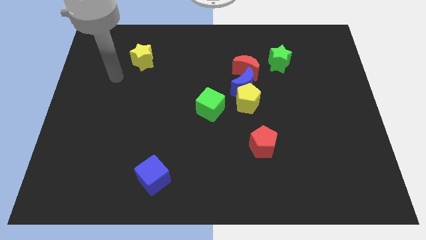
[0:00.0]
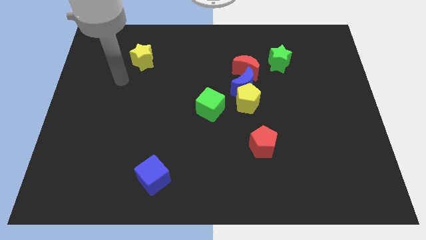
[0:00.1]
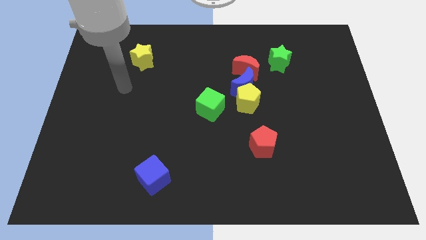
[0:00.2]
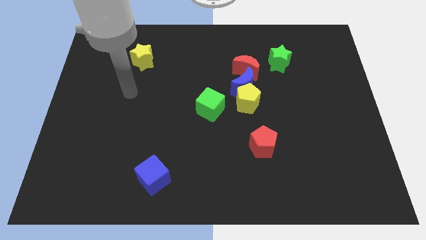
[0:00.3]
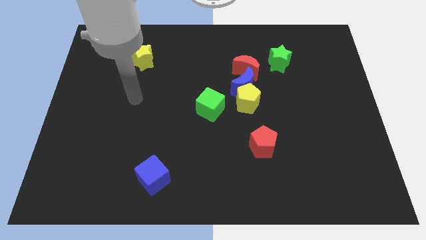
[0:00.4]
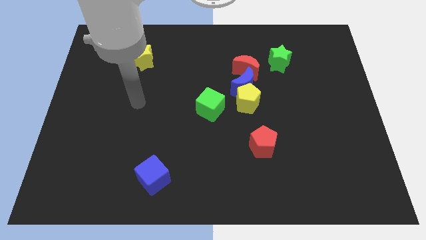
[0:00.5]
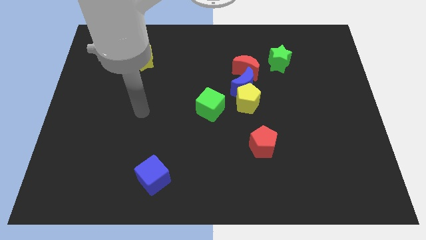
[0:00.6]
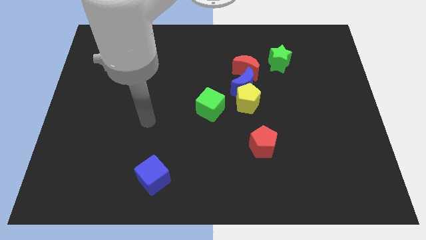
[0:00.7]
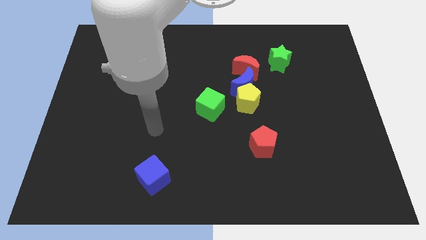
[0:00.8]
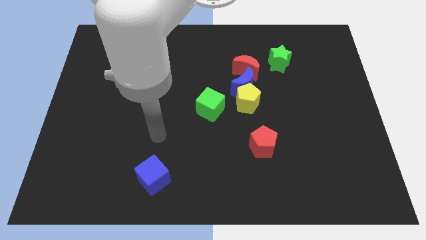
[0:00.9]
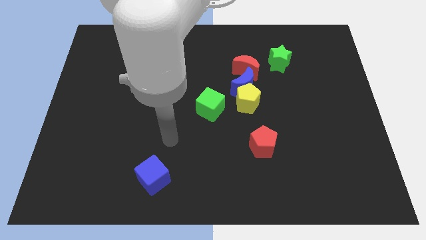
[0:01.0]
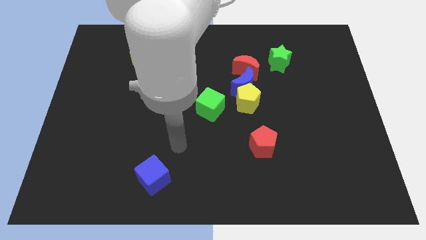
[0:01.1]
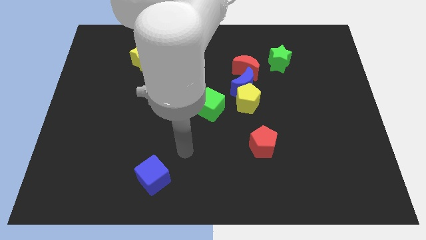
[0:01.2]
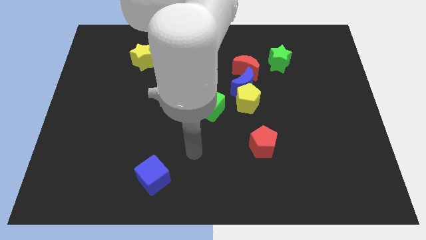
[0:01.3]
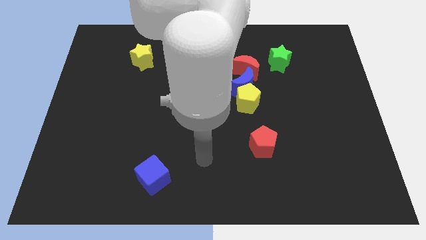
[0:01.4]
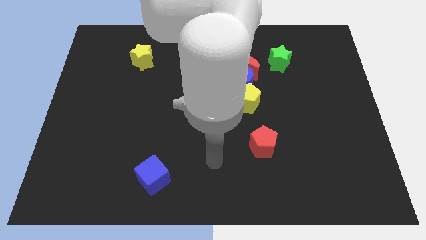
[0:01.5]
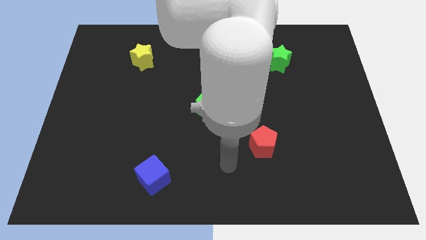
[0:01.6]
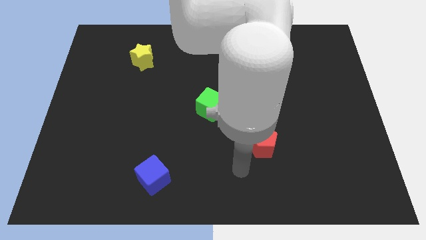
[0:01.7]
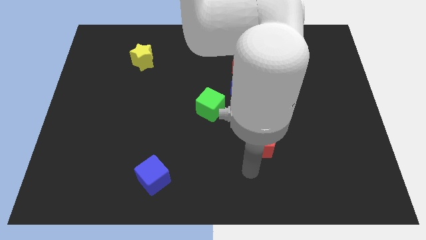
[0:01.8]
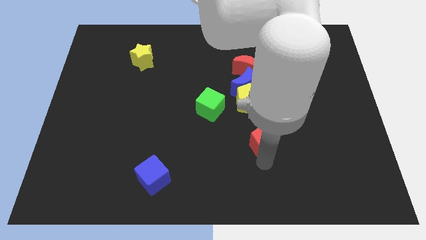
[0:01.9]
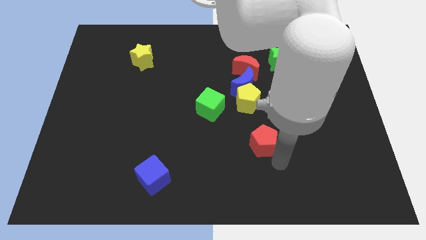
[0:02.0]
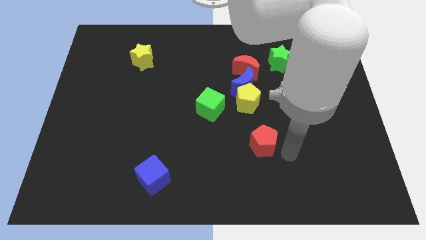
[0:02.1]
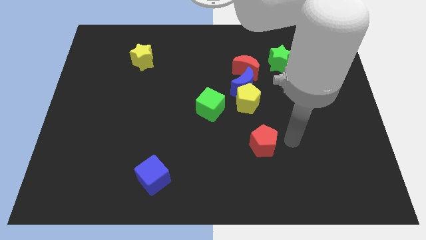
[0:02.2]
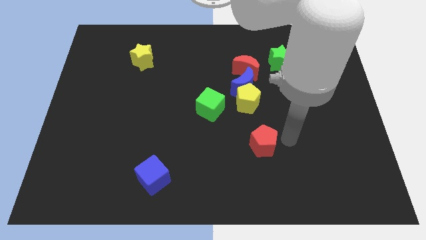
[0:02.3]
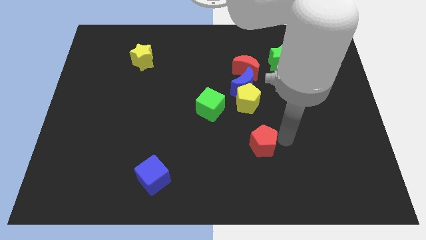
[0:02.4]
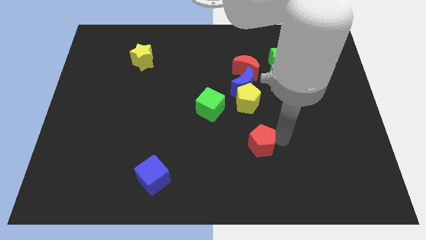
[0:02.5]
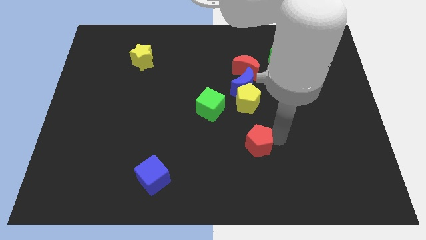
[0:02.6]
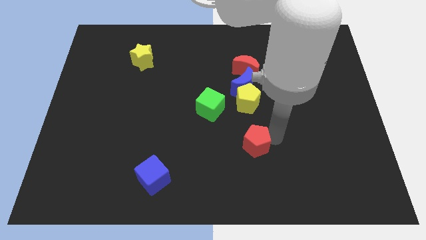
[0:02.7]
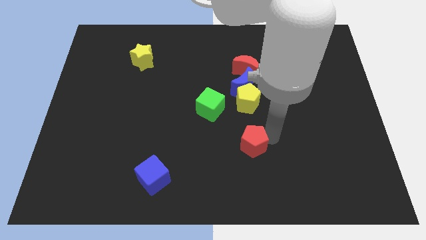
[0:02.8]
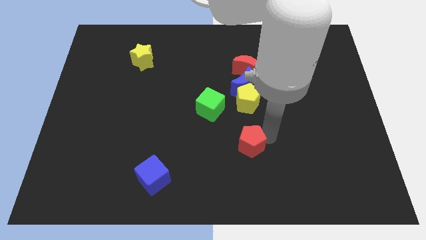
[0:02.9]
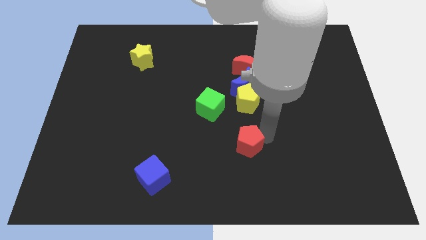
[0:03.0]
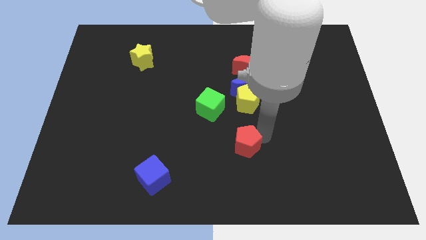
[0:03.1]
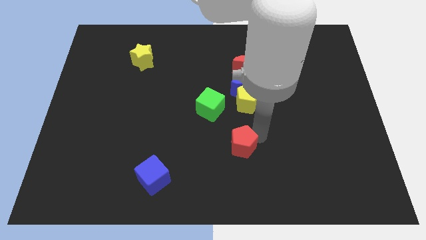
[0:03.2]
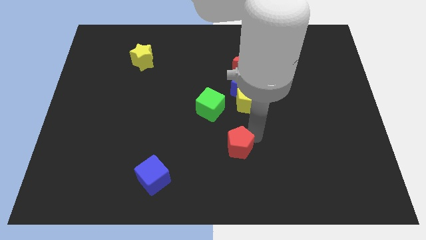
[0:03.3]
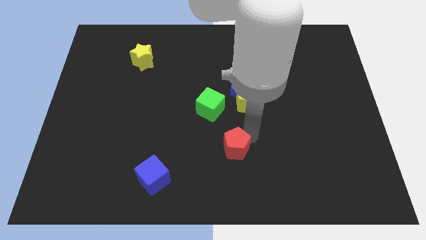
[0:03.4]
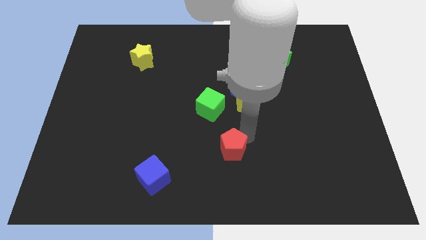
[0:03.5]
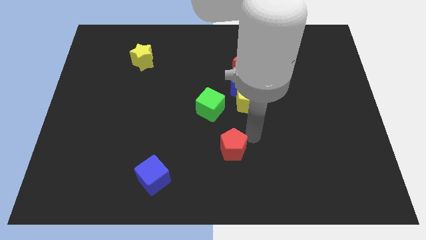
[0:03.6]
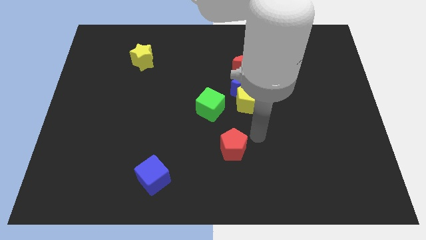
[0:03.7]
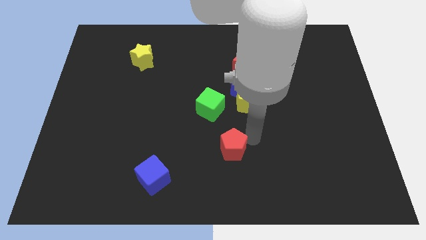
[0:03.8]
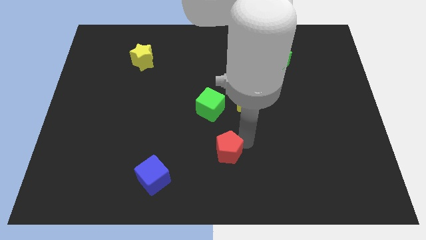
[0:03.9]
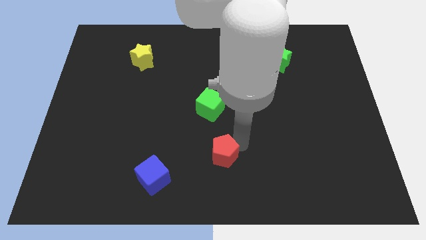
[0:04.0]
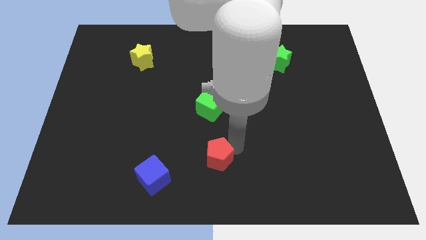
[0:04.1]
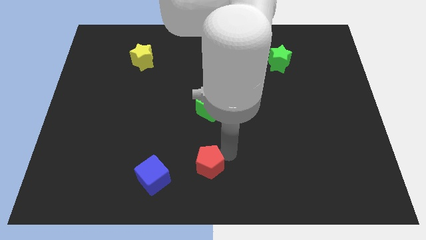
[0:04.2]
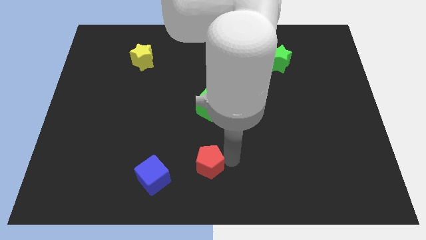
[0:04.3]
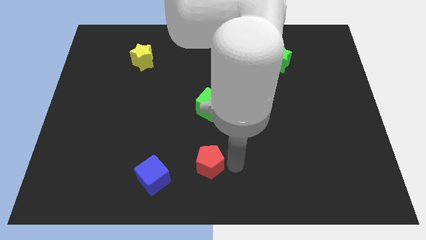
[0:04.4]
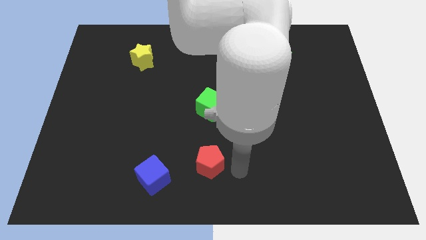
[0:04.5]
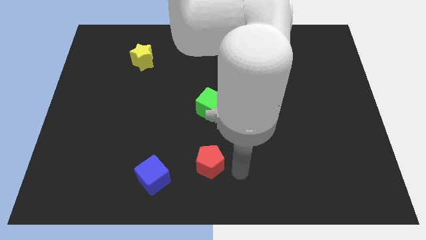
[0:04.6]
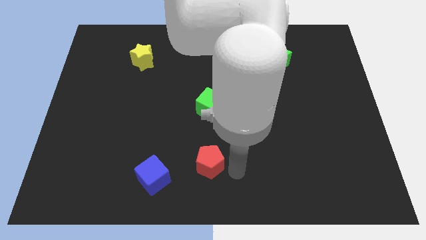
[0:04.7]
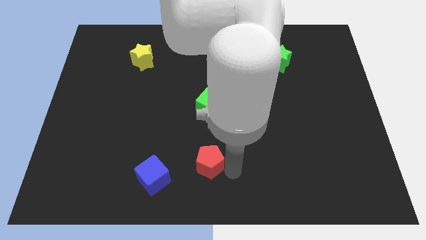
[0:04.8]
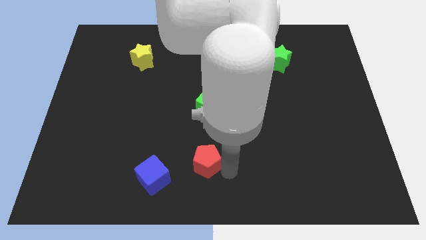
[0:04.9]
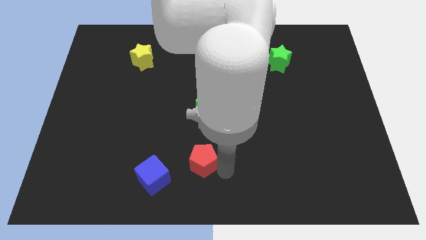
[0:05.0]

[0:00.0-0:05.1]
put the red pentagon to the top right side of the blue cube

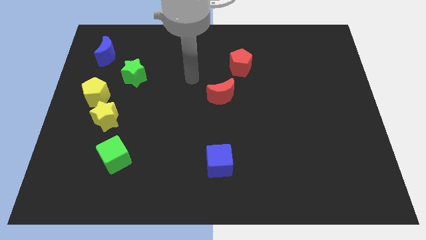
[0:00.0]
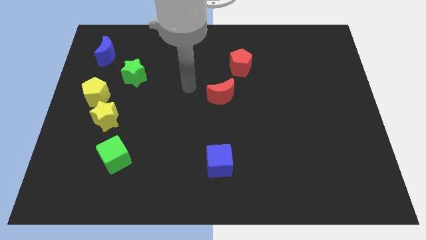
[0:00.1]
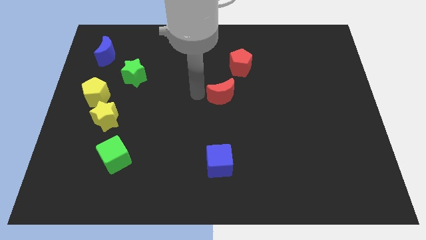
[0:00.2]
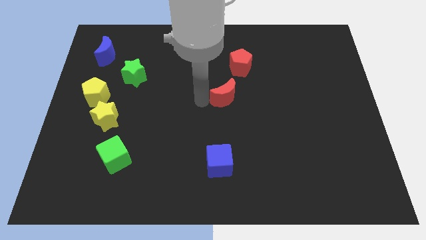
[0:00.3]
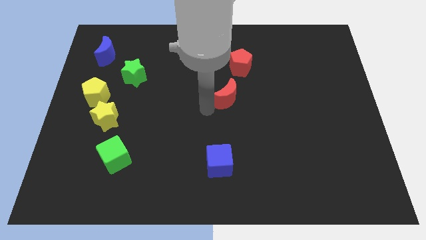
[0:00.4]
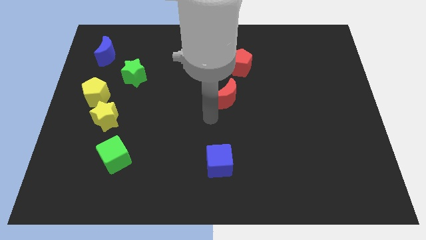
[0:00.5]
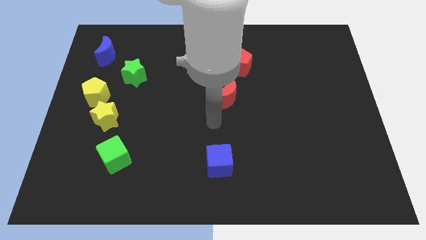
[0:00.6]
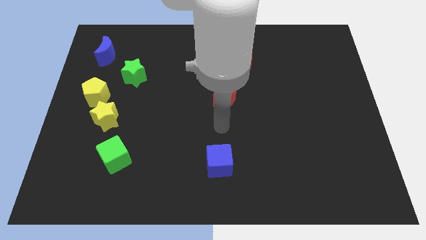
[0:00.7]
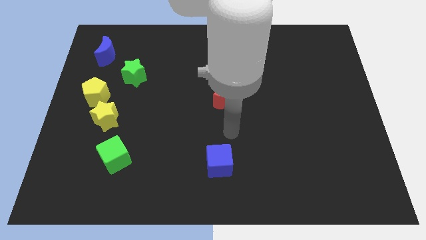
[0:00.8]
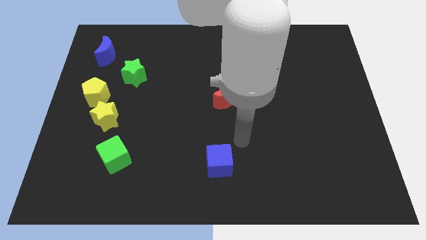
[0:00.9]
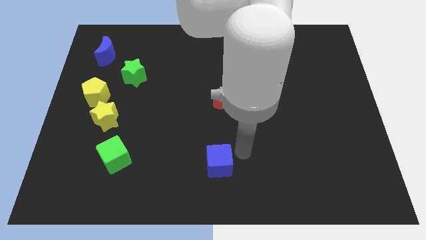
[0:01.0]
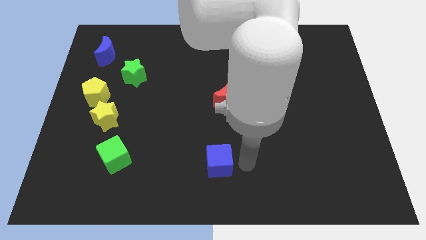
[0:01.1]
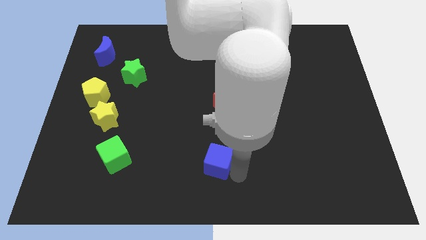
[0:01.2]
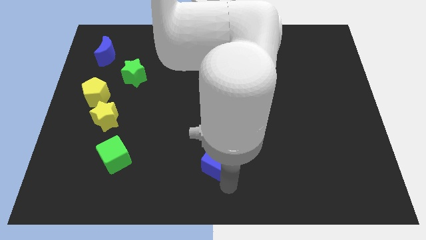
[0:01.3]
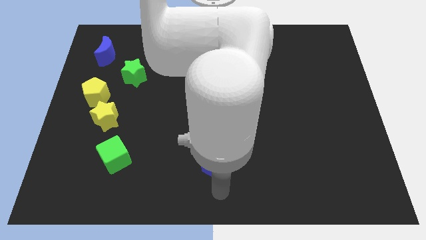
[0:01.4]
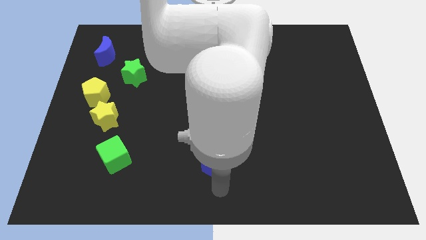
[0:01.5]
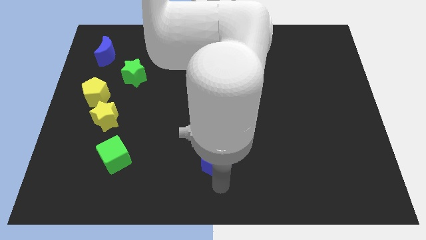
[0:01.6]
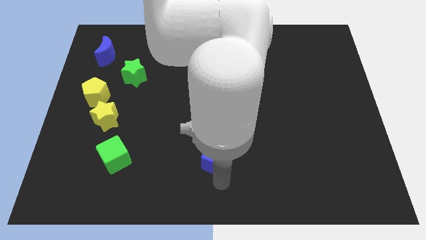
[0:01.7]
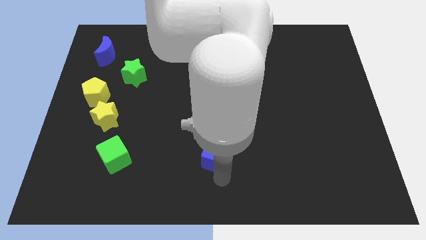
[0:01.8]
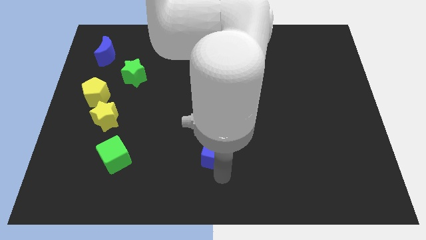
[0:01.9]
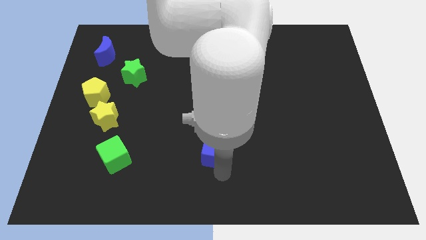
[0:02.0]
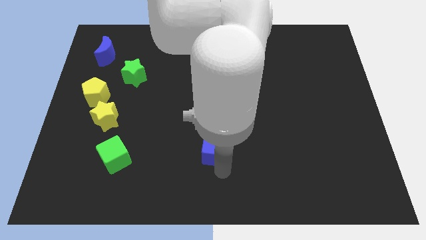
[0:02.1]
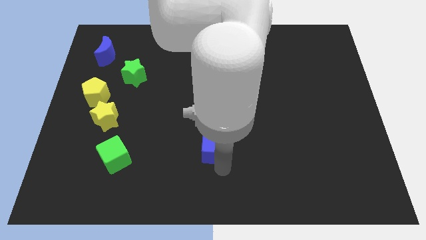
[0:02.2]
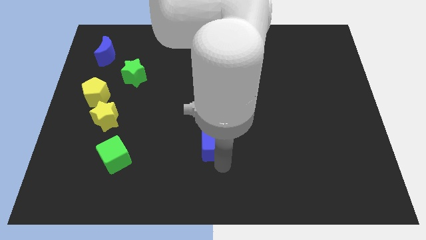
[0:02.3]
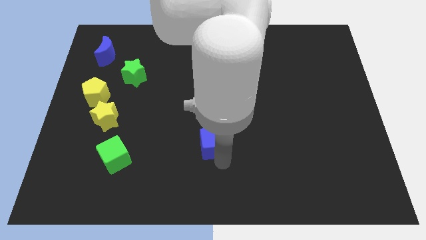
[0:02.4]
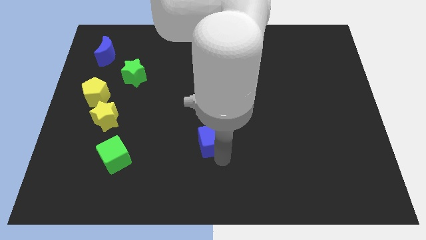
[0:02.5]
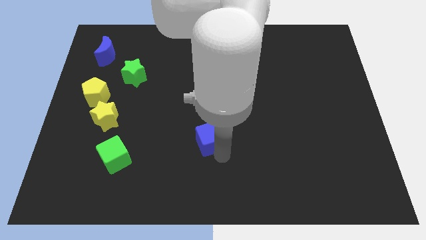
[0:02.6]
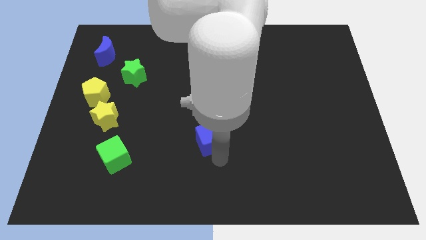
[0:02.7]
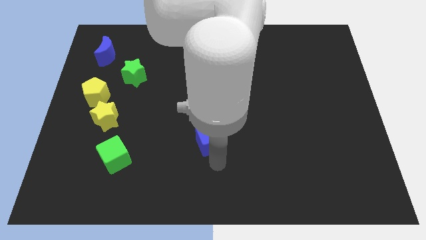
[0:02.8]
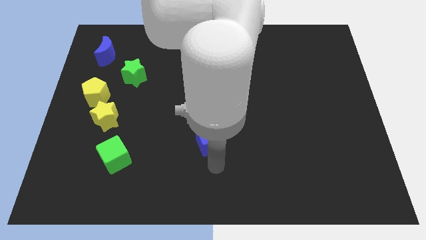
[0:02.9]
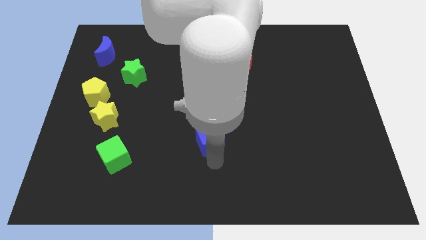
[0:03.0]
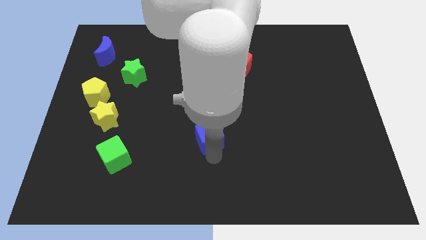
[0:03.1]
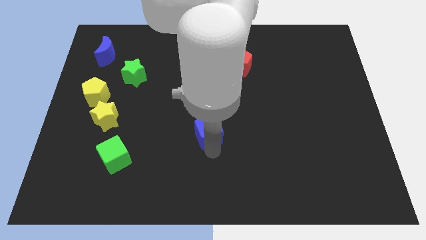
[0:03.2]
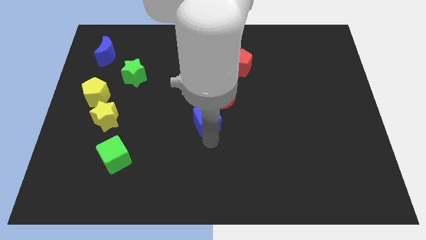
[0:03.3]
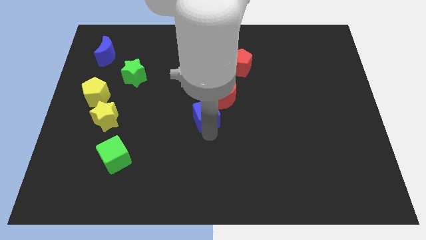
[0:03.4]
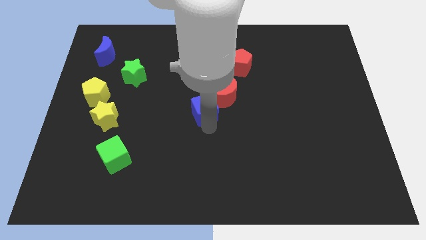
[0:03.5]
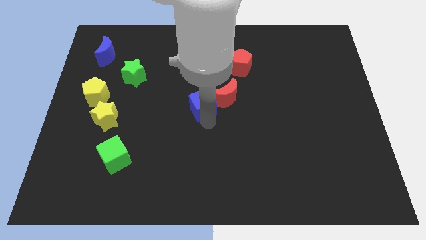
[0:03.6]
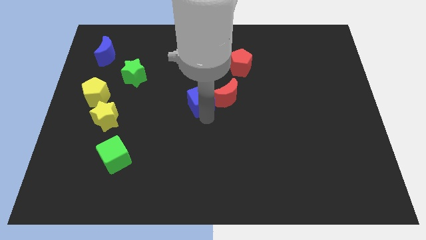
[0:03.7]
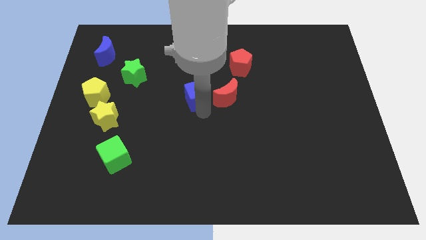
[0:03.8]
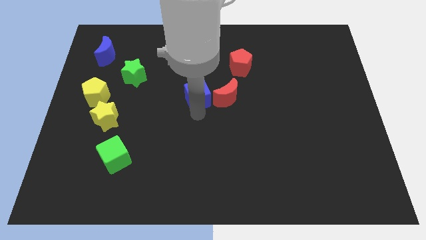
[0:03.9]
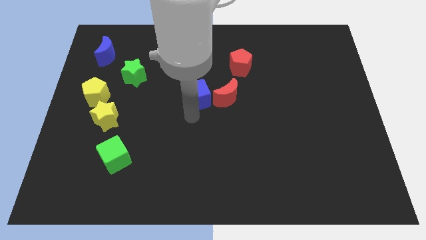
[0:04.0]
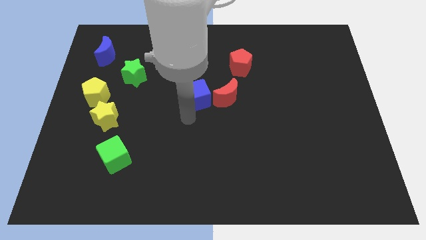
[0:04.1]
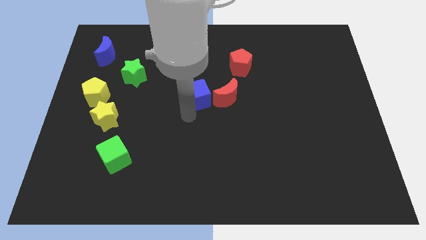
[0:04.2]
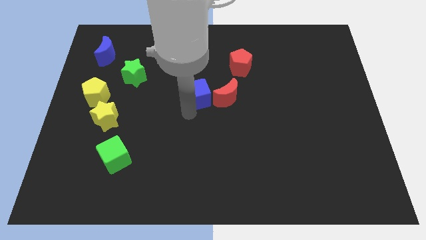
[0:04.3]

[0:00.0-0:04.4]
slide the blue cube to the top left of the red moon
